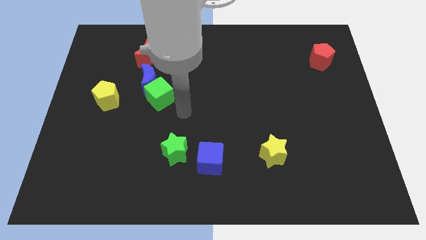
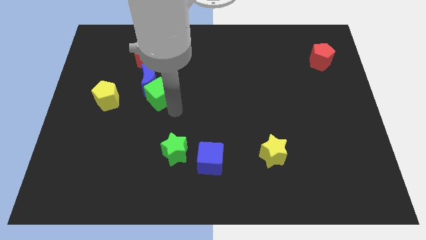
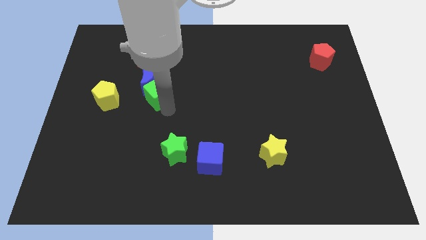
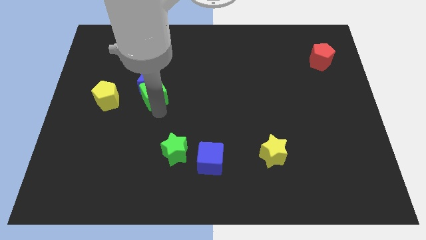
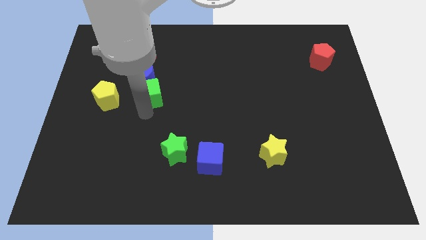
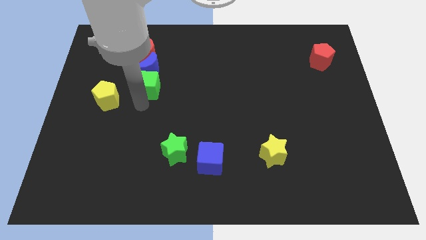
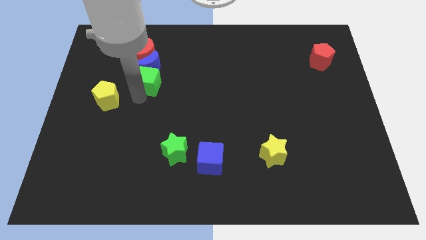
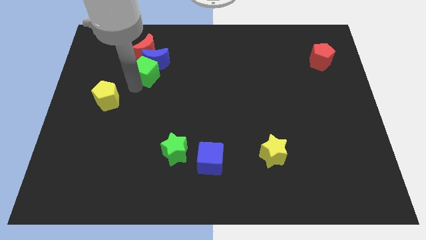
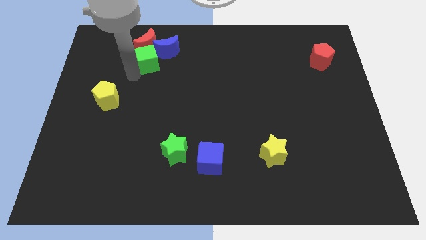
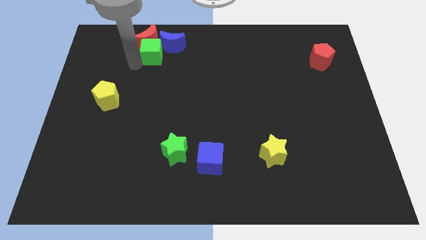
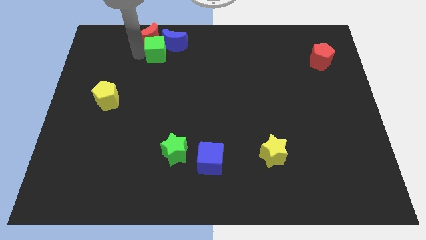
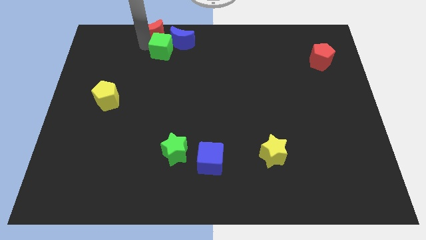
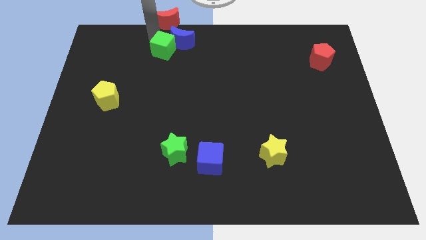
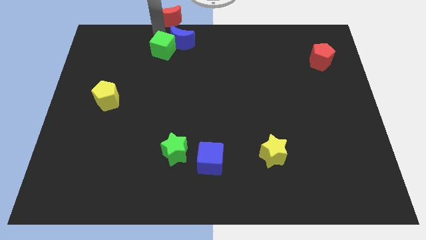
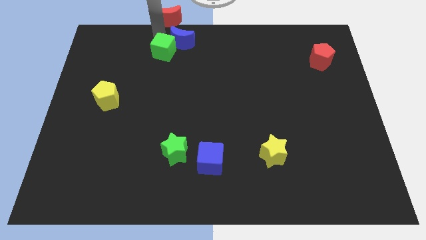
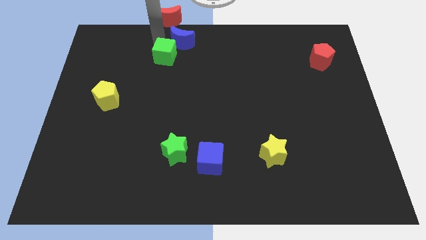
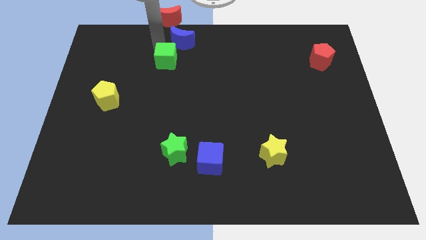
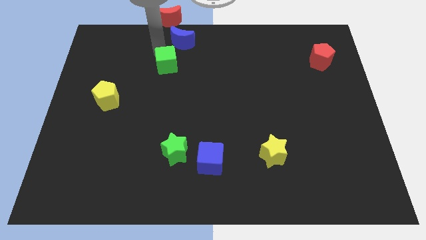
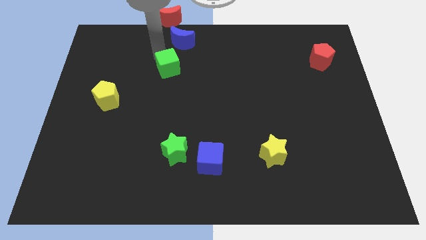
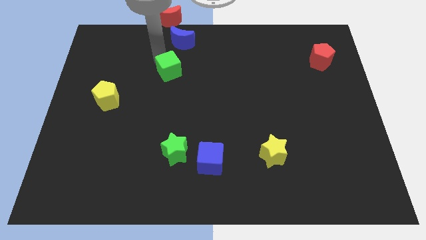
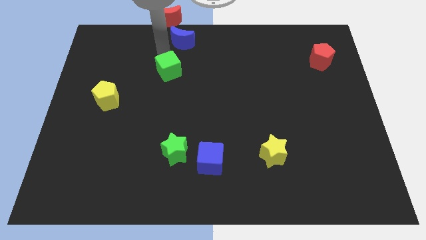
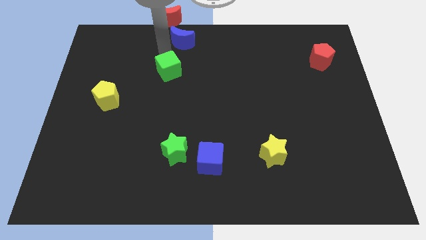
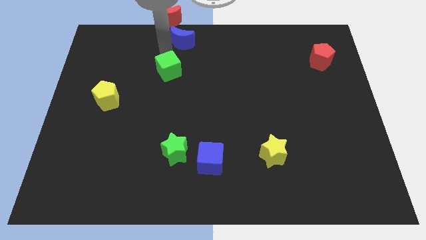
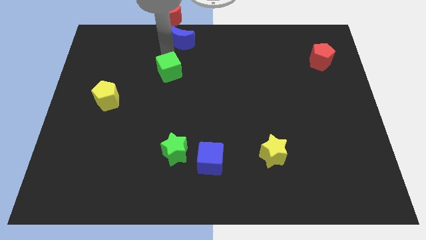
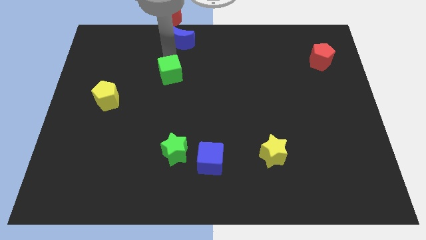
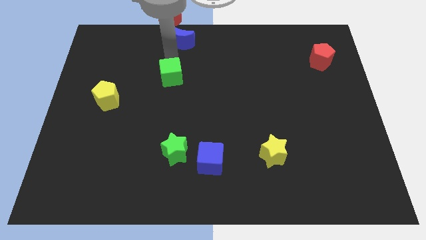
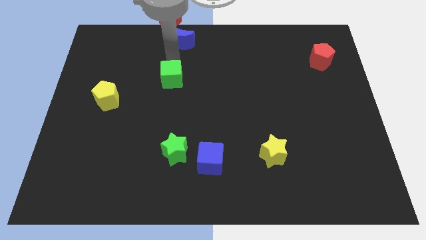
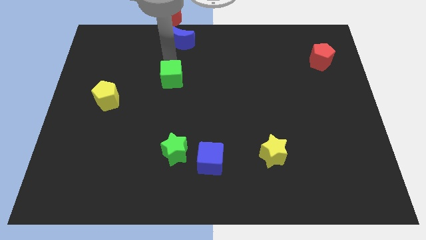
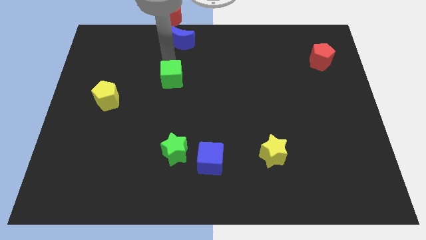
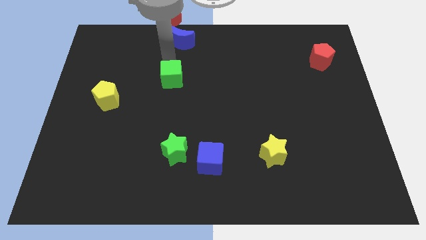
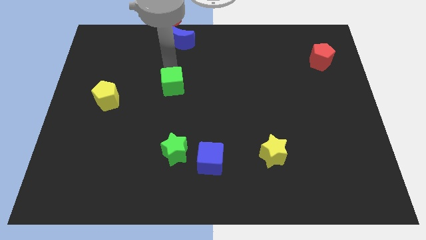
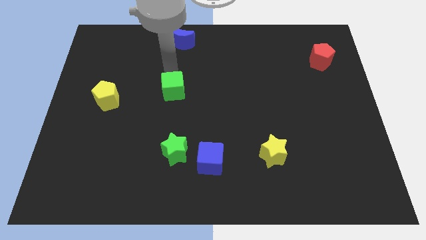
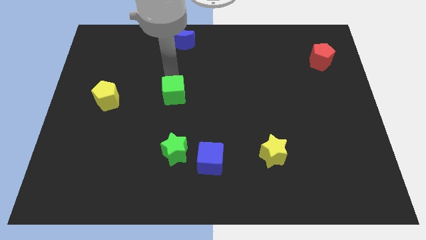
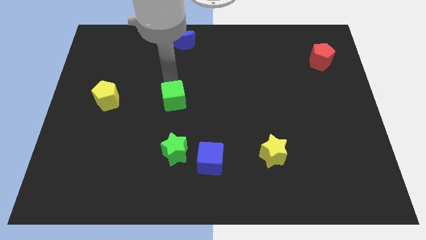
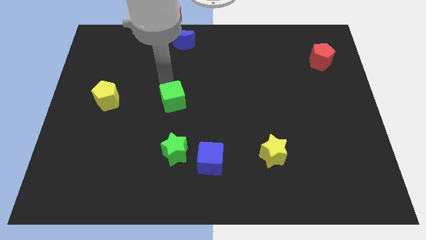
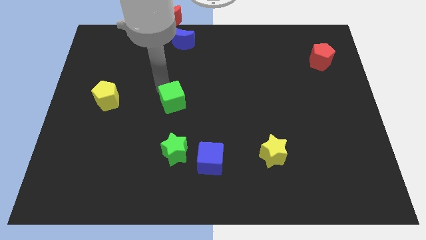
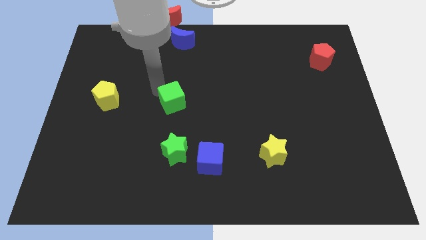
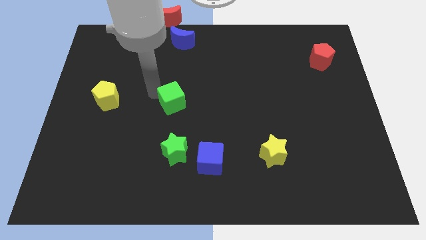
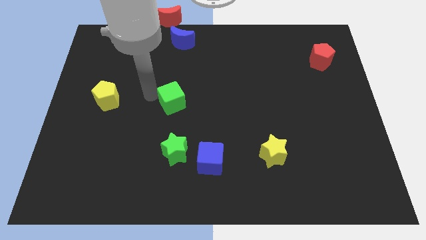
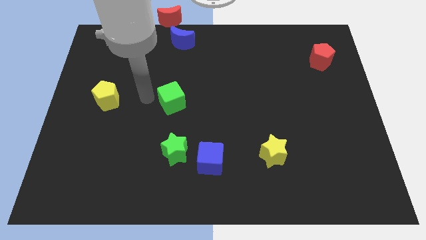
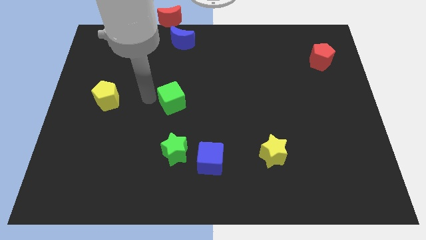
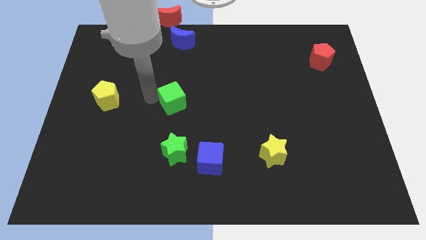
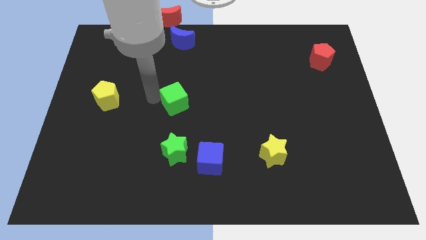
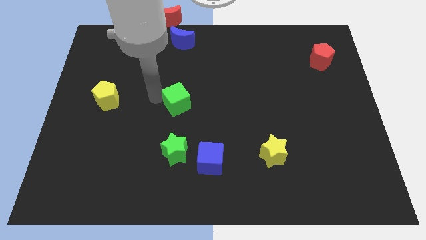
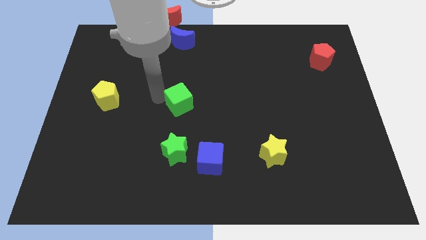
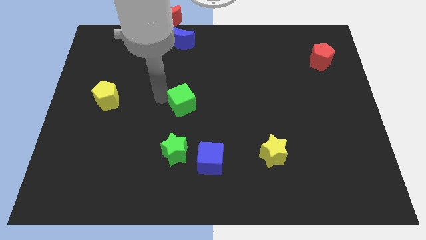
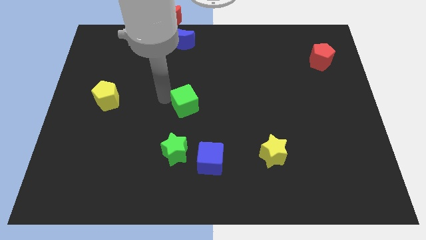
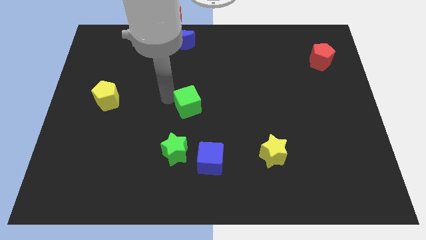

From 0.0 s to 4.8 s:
slide the green cube a little bit to the right

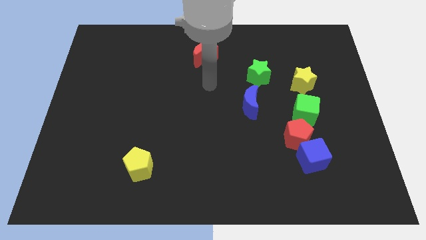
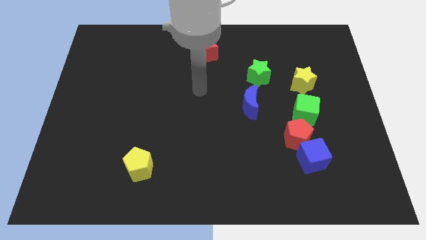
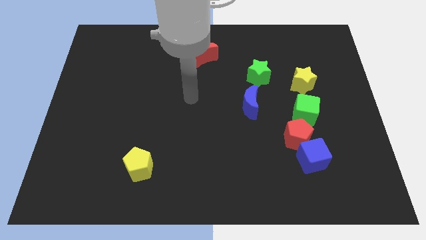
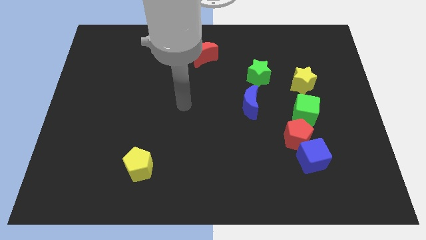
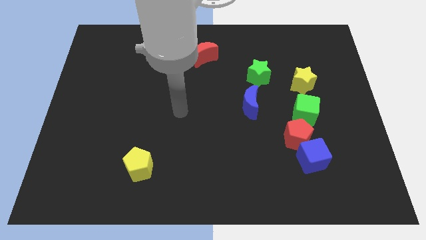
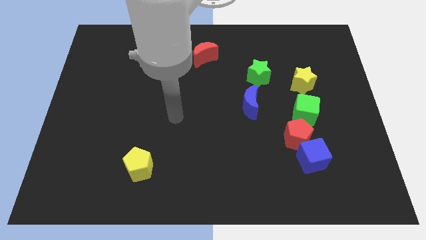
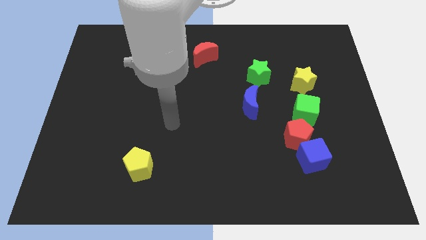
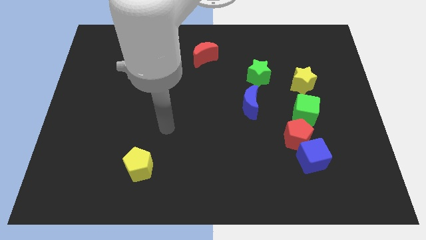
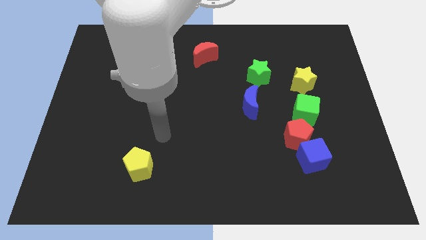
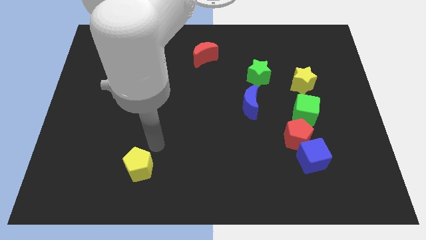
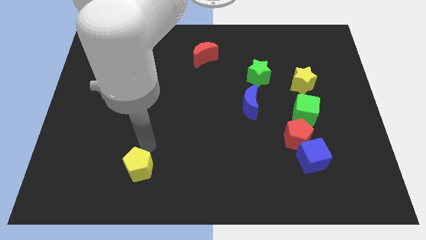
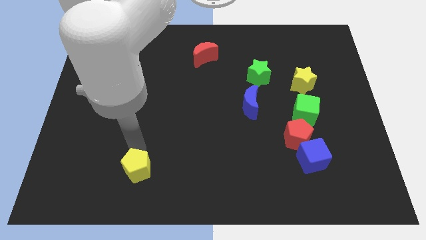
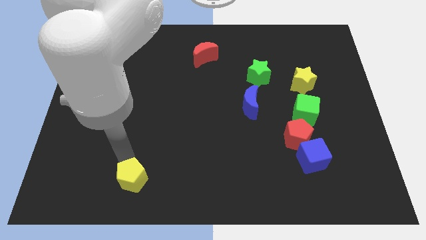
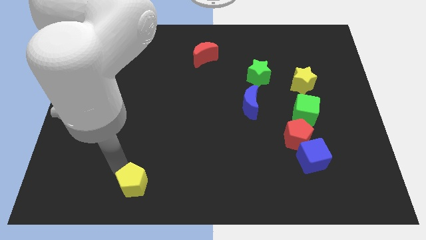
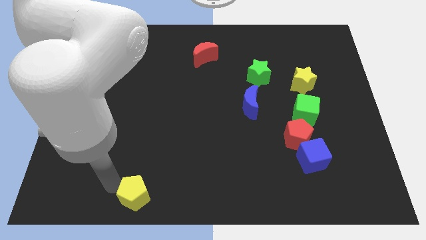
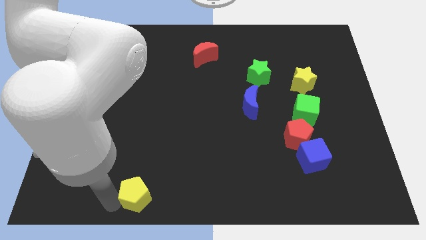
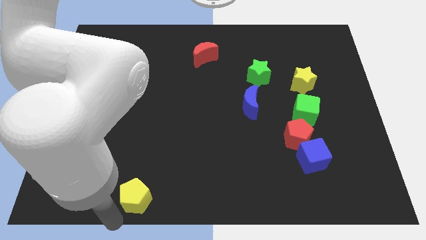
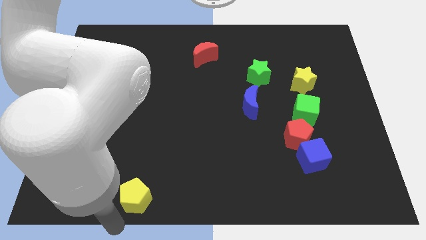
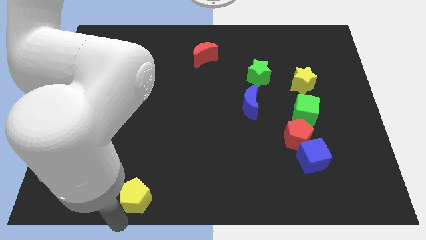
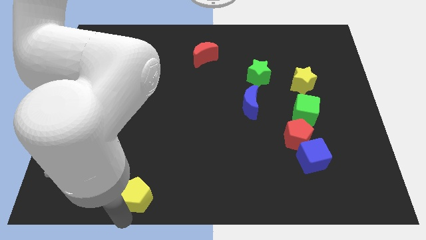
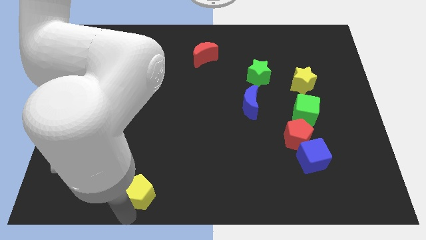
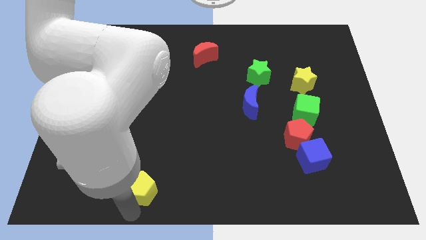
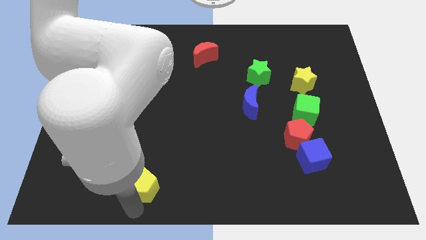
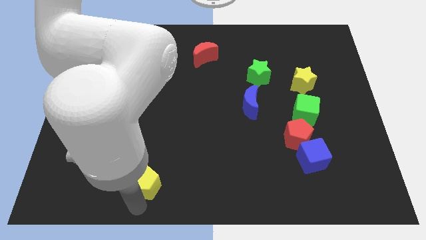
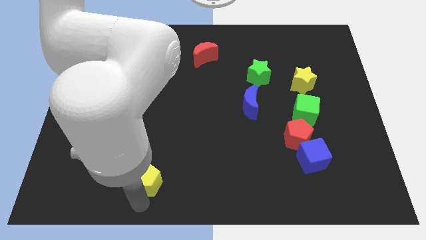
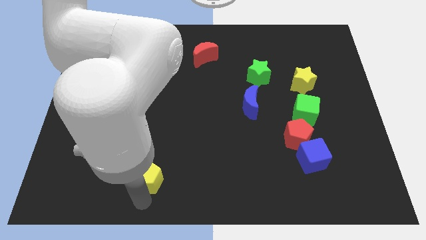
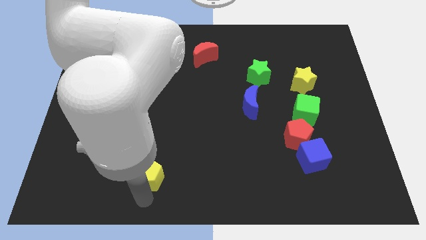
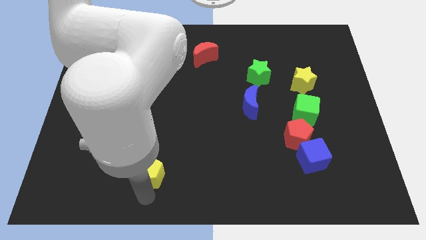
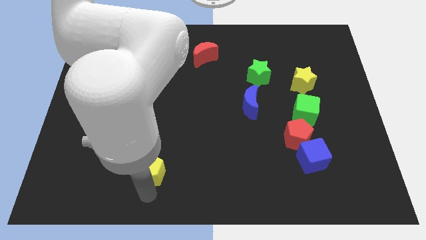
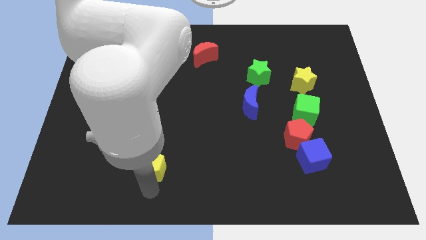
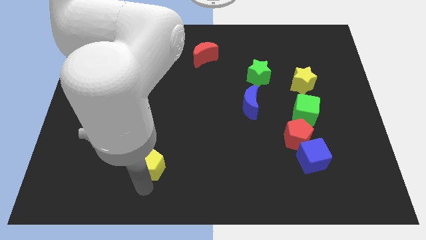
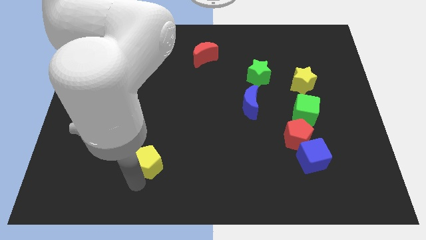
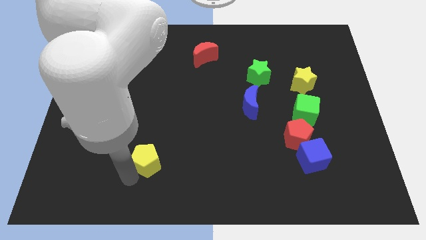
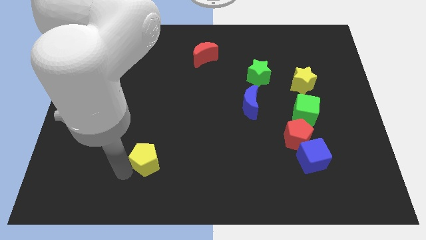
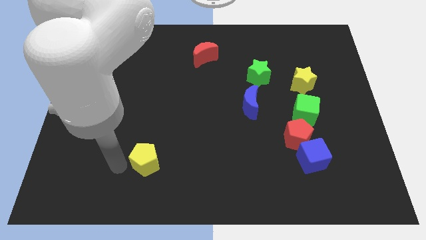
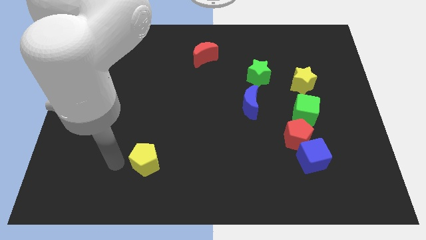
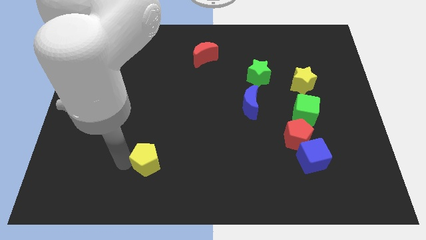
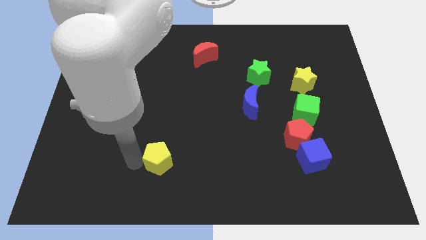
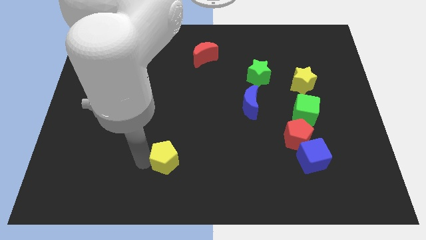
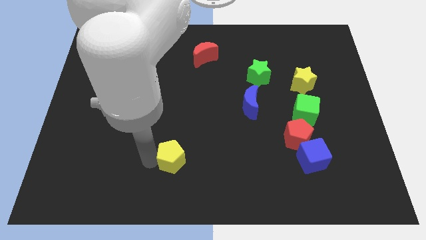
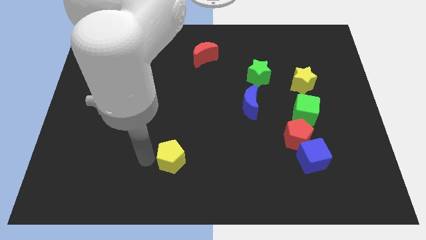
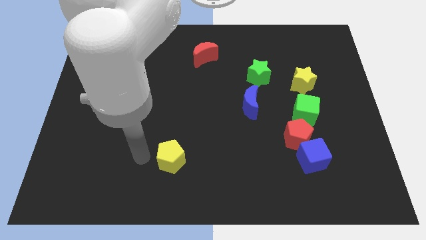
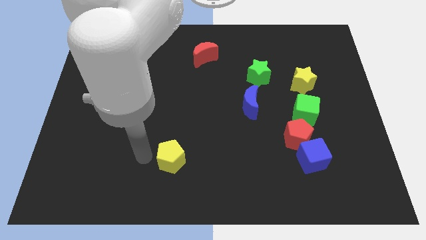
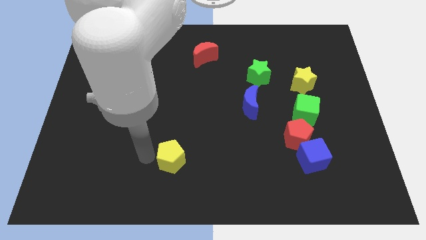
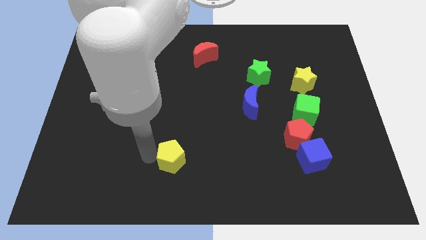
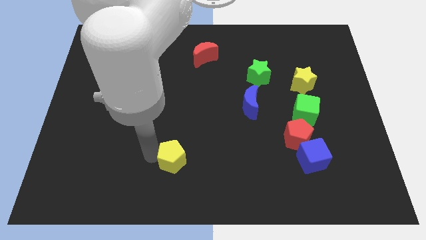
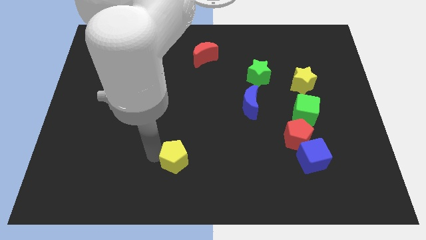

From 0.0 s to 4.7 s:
slide the yellow pentagon to the right slightly
